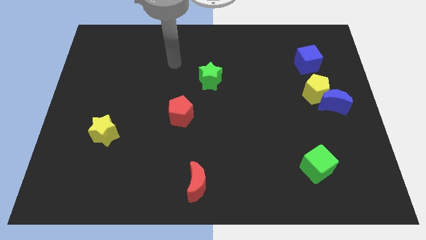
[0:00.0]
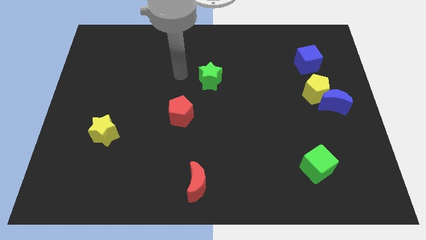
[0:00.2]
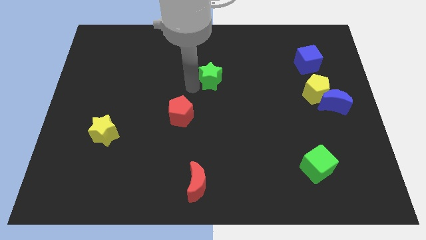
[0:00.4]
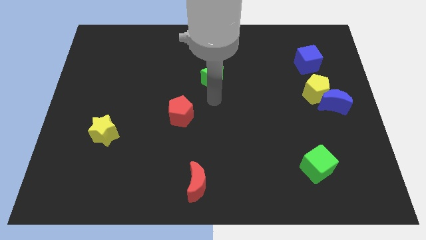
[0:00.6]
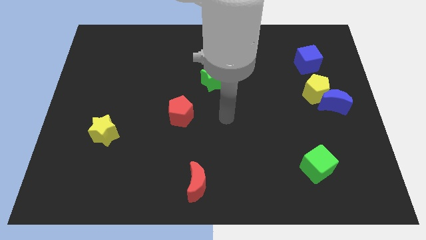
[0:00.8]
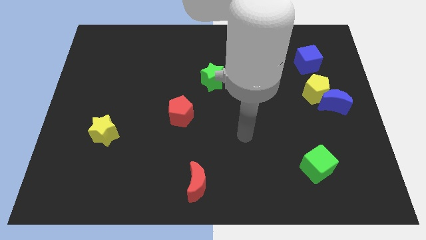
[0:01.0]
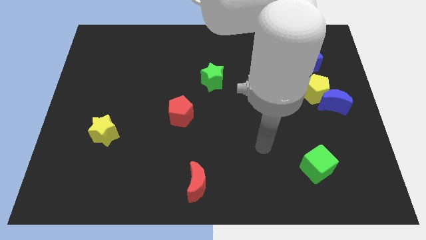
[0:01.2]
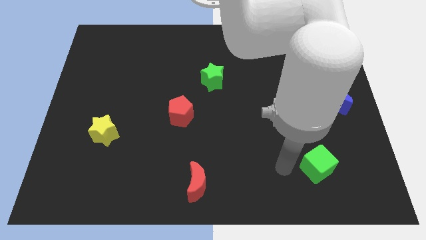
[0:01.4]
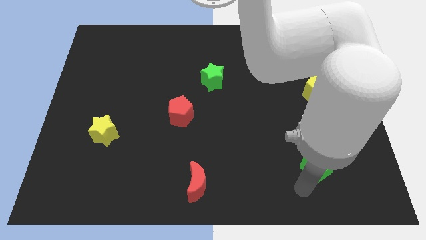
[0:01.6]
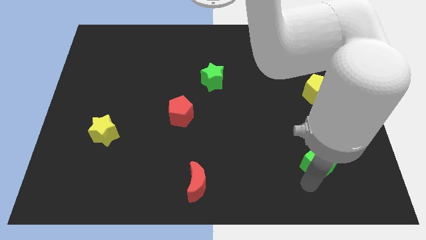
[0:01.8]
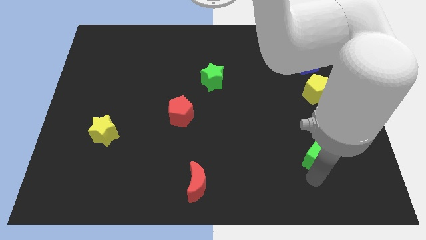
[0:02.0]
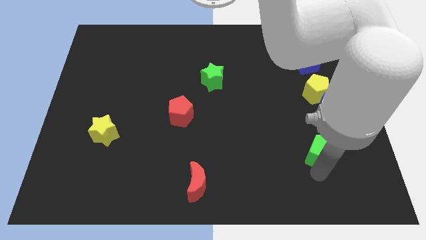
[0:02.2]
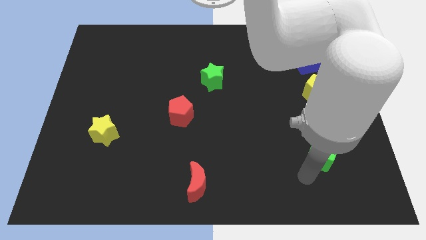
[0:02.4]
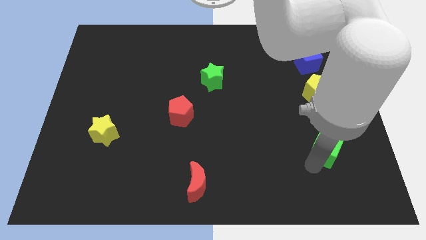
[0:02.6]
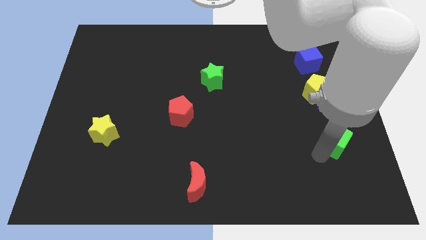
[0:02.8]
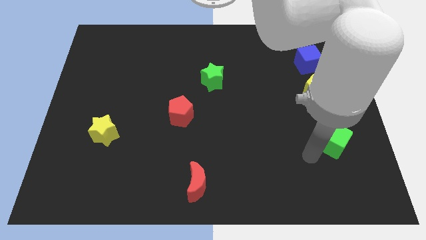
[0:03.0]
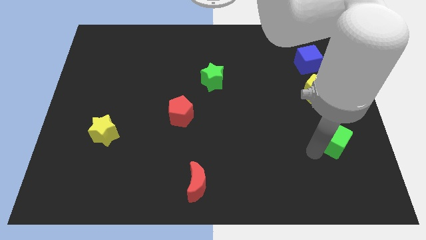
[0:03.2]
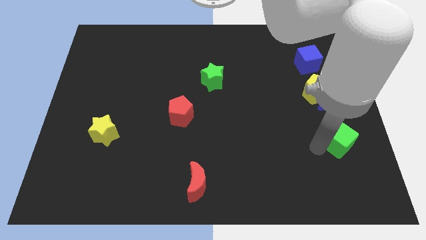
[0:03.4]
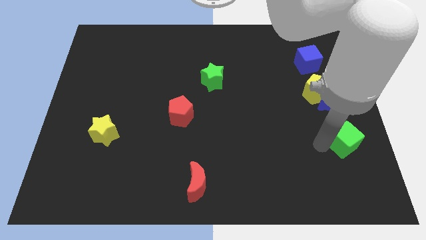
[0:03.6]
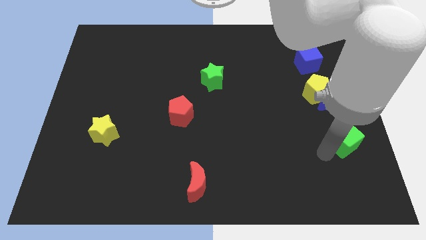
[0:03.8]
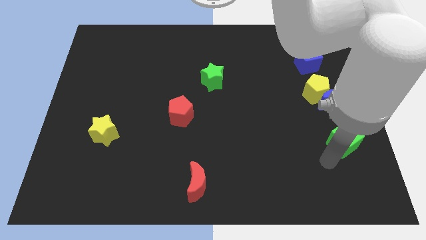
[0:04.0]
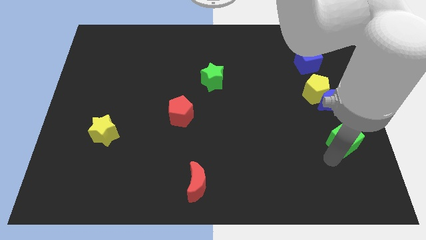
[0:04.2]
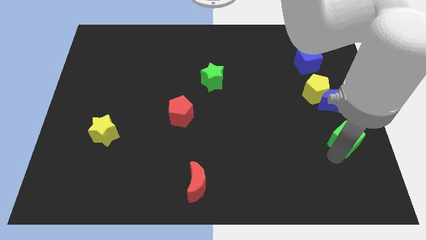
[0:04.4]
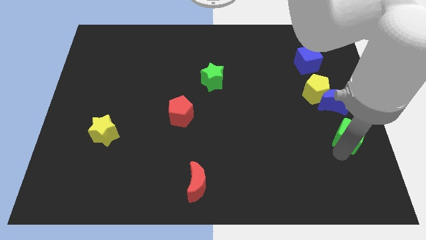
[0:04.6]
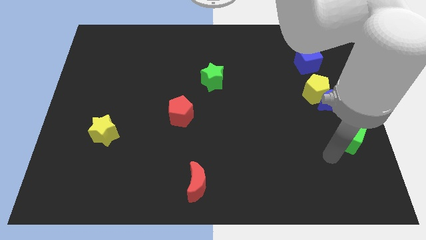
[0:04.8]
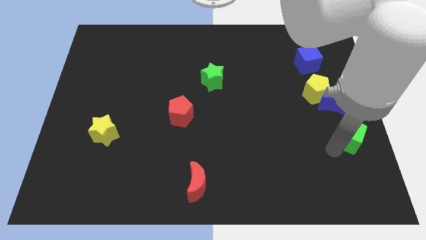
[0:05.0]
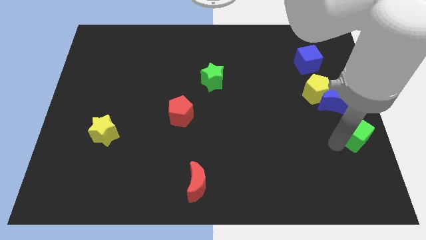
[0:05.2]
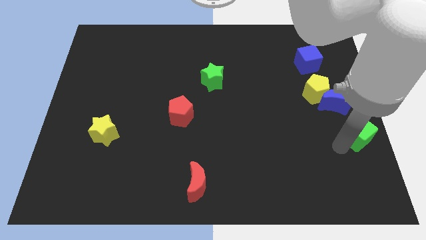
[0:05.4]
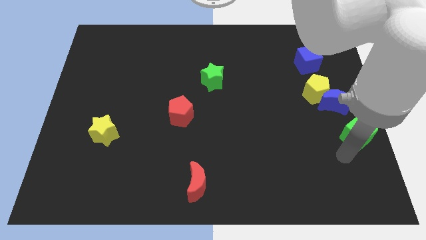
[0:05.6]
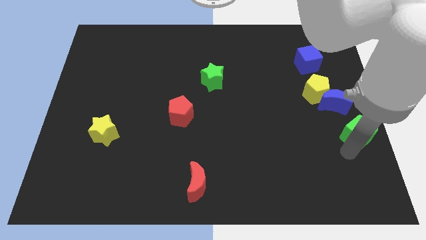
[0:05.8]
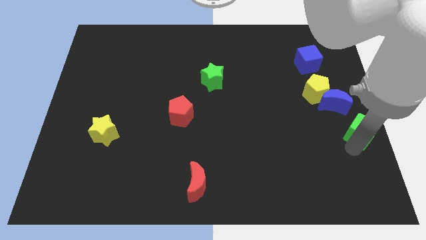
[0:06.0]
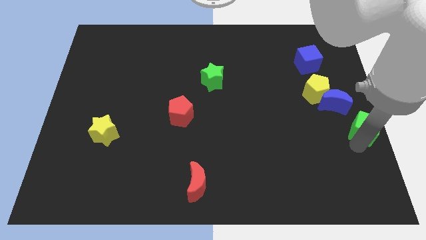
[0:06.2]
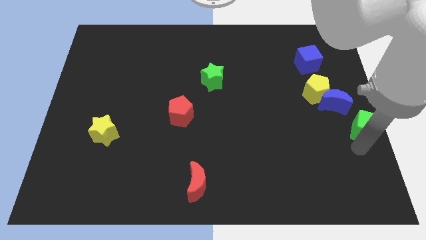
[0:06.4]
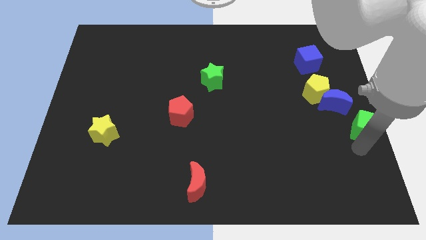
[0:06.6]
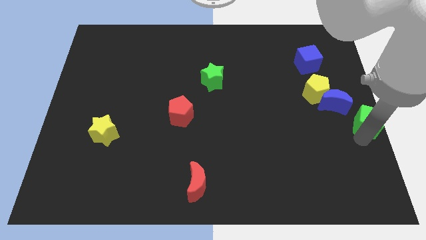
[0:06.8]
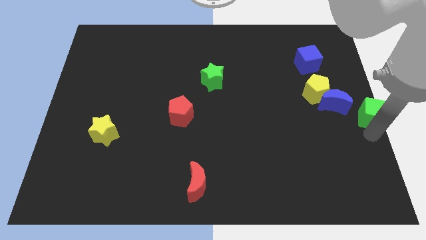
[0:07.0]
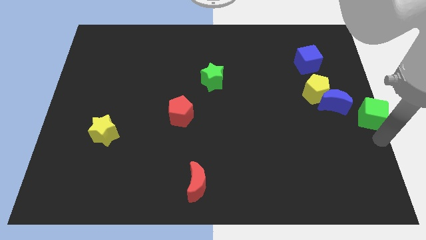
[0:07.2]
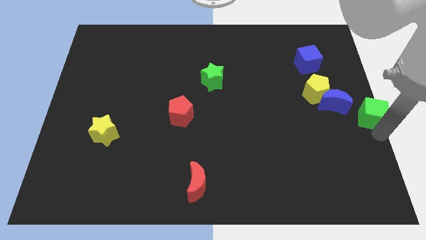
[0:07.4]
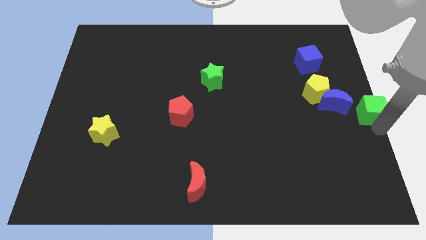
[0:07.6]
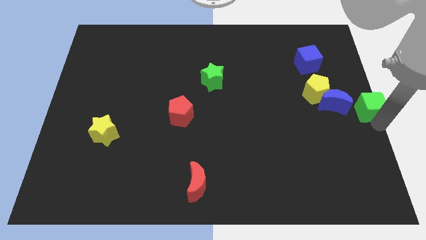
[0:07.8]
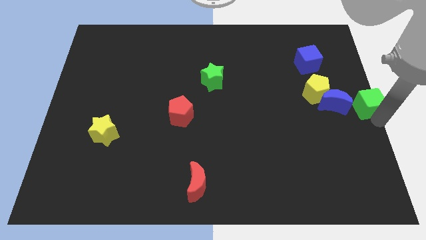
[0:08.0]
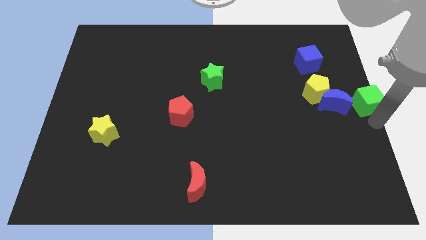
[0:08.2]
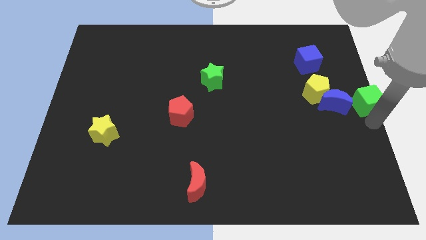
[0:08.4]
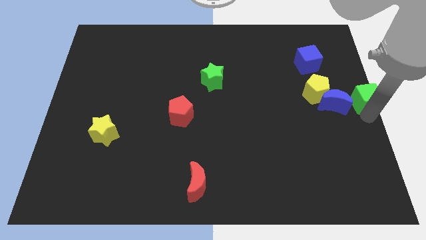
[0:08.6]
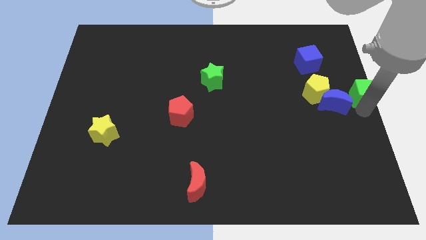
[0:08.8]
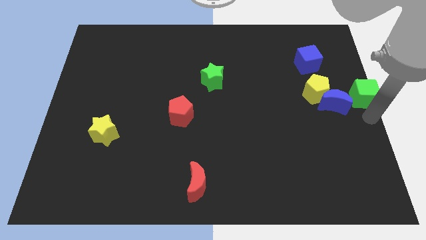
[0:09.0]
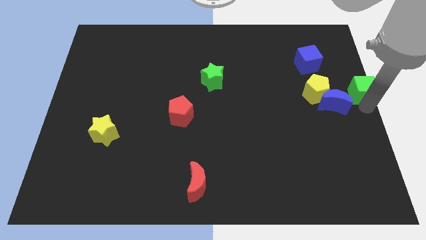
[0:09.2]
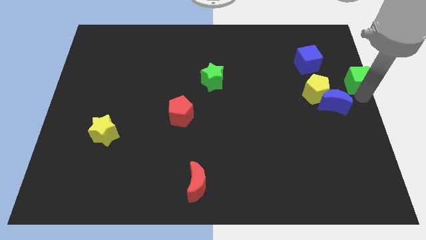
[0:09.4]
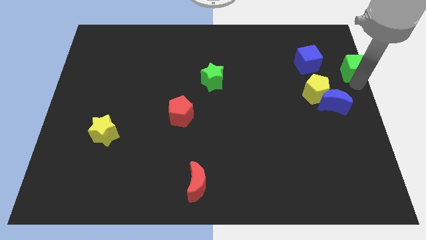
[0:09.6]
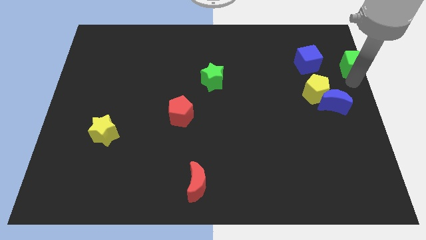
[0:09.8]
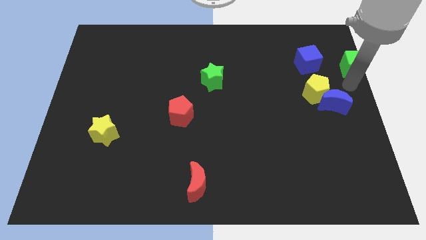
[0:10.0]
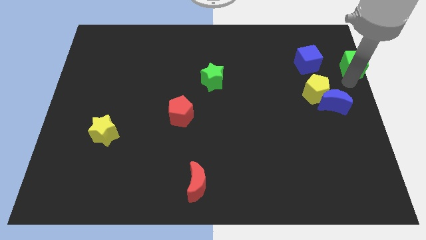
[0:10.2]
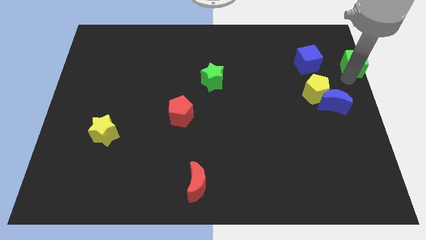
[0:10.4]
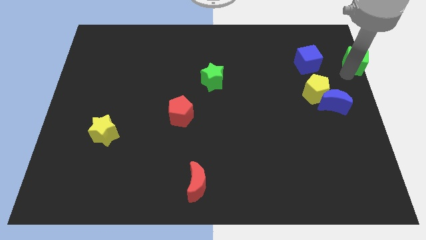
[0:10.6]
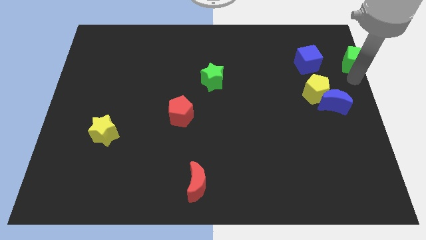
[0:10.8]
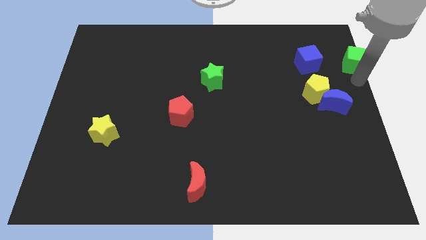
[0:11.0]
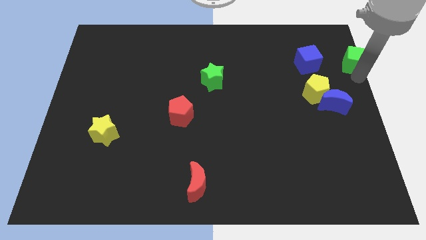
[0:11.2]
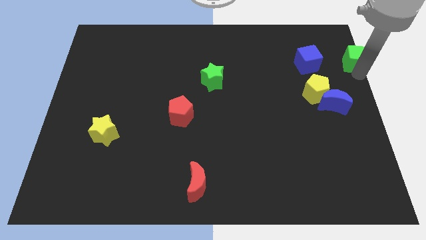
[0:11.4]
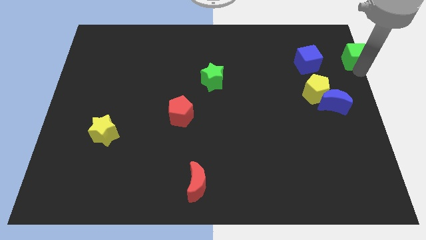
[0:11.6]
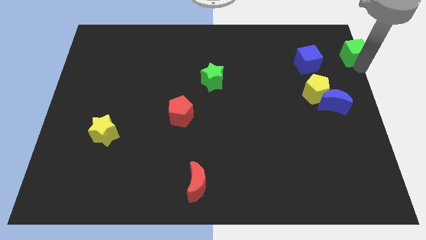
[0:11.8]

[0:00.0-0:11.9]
put the green cube to the top right
